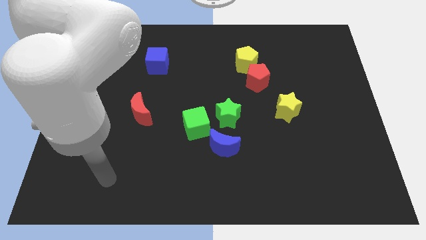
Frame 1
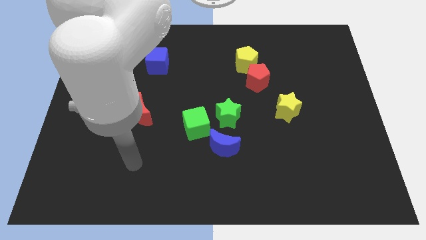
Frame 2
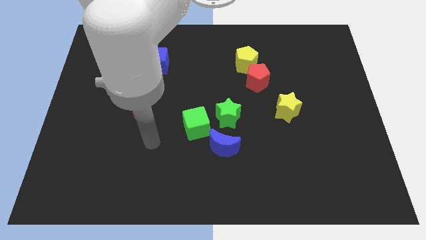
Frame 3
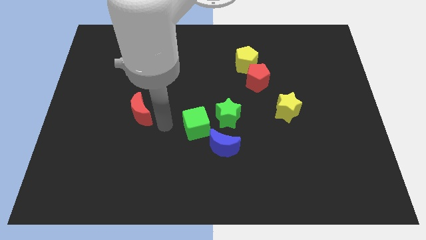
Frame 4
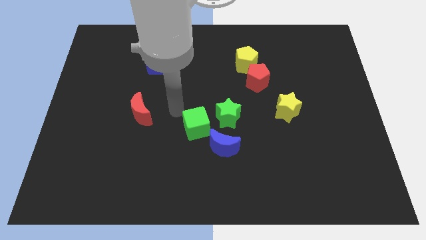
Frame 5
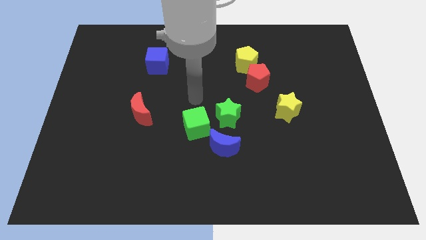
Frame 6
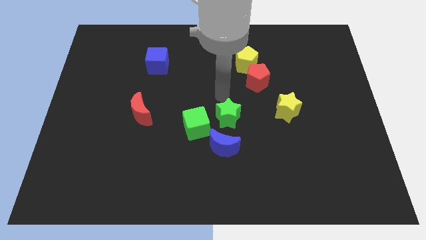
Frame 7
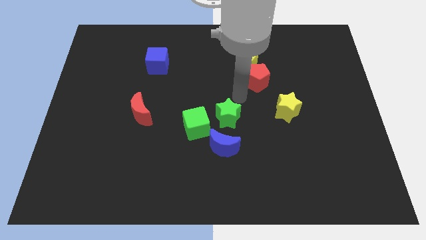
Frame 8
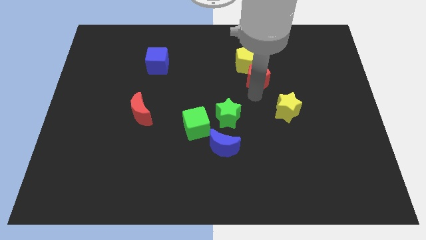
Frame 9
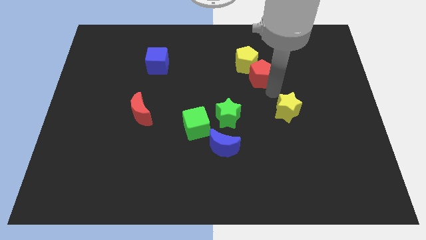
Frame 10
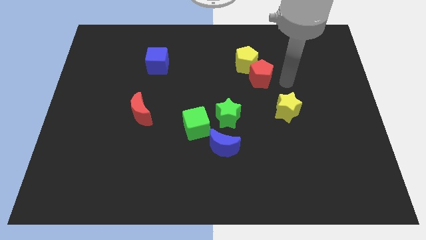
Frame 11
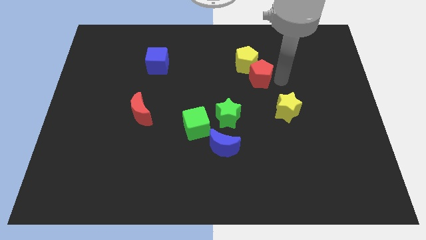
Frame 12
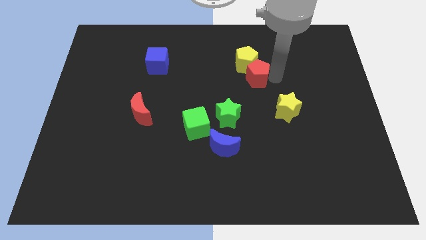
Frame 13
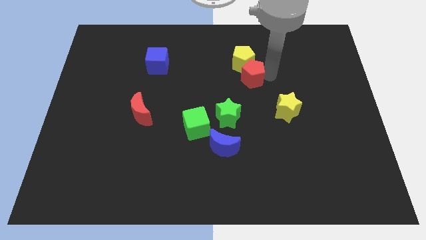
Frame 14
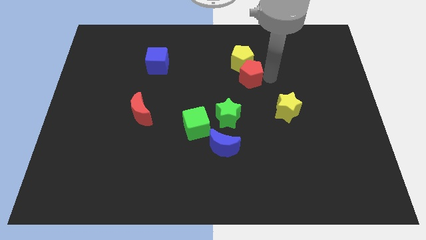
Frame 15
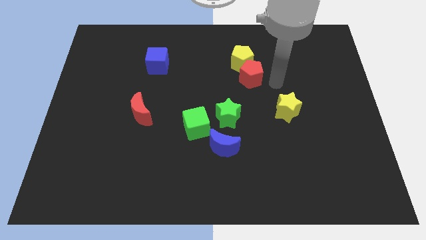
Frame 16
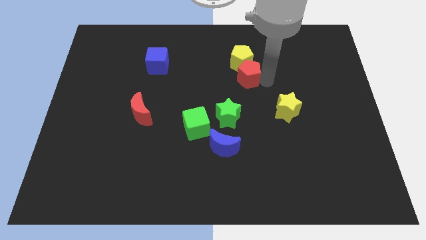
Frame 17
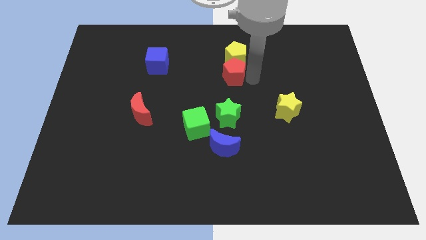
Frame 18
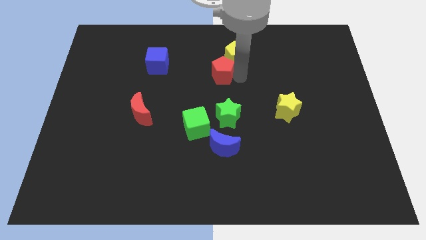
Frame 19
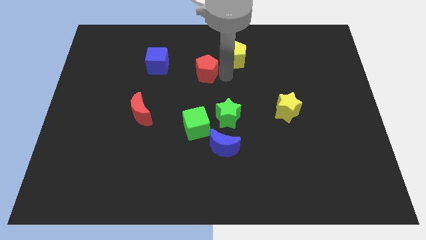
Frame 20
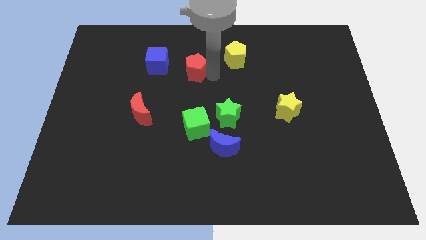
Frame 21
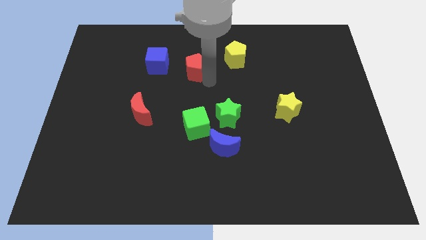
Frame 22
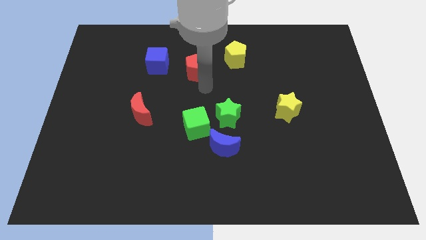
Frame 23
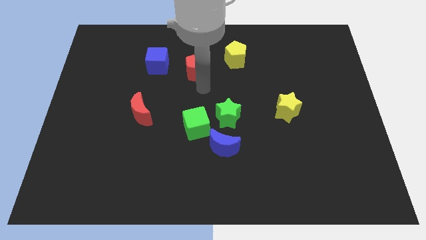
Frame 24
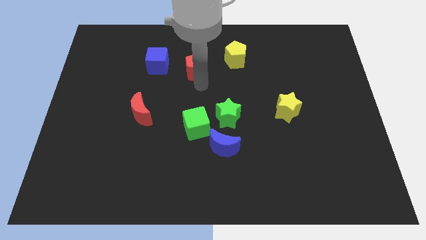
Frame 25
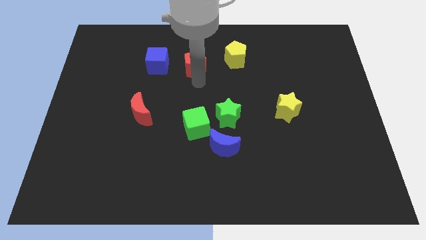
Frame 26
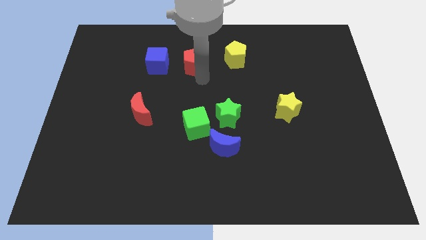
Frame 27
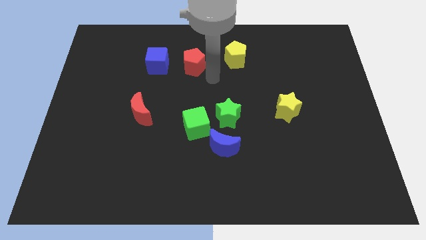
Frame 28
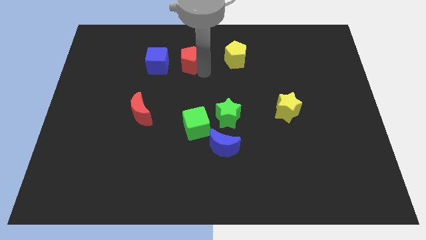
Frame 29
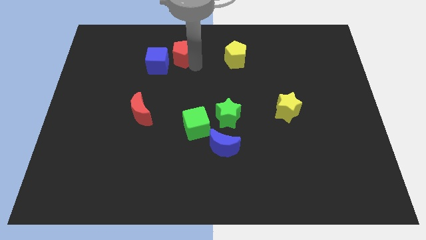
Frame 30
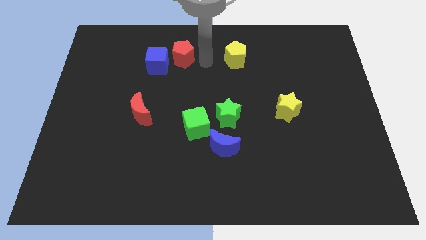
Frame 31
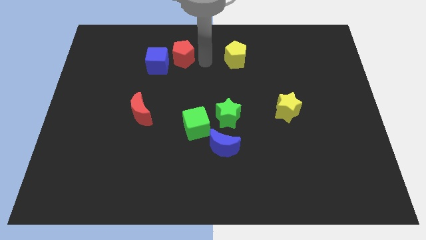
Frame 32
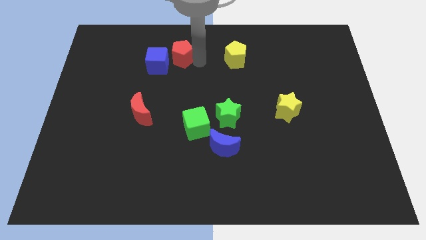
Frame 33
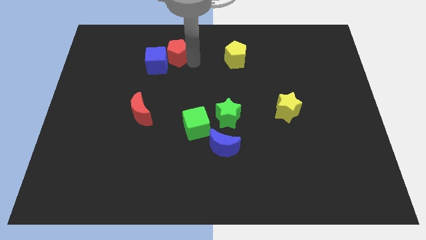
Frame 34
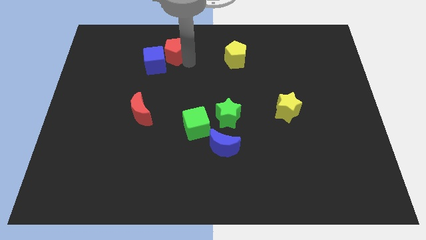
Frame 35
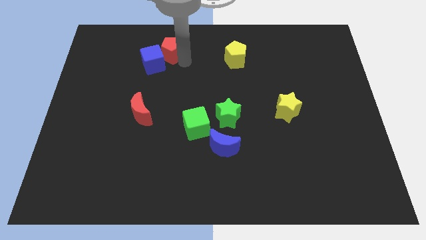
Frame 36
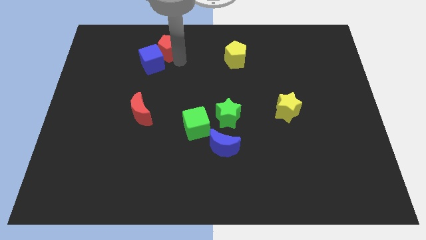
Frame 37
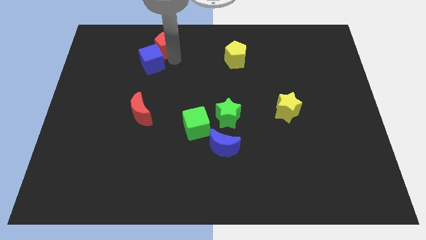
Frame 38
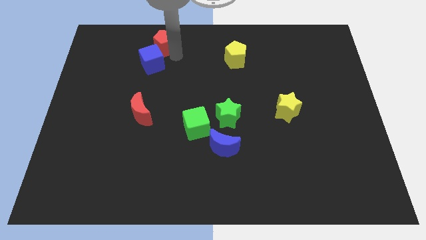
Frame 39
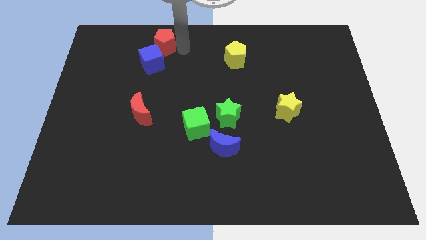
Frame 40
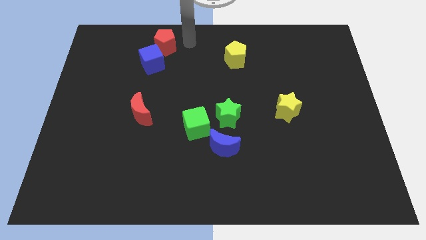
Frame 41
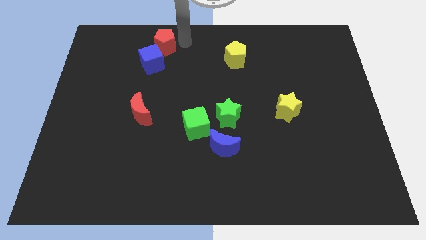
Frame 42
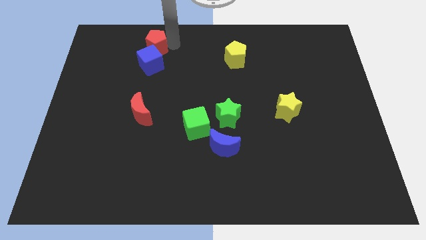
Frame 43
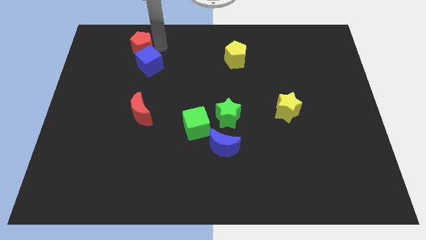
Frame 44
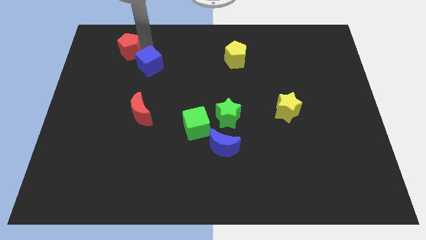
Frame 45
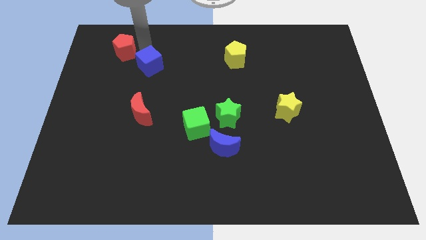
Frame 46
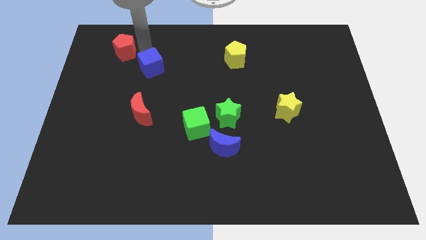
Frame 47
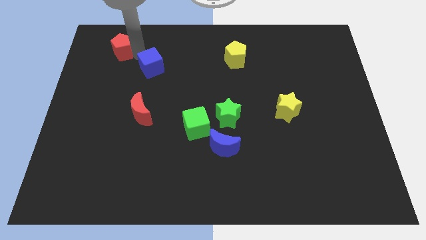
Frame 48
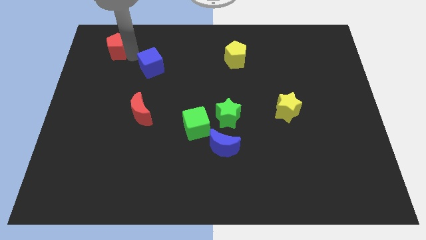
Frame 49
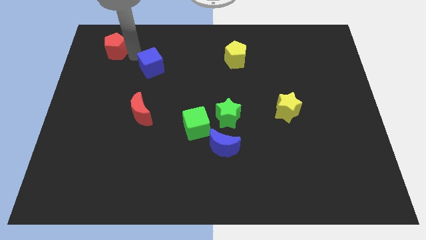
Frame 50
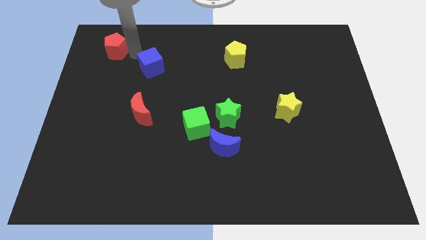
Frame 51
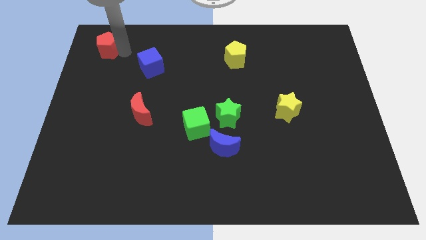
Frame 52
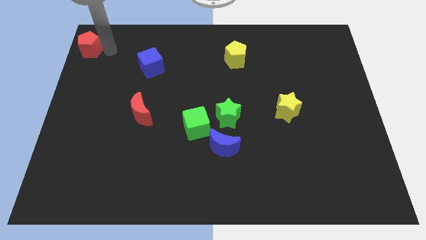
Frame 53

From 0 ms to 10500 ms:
push the red pentagon to the top left corner

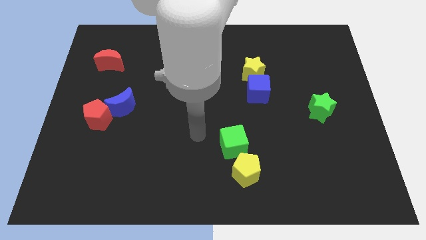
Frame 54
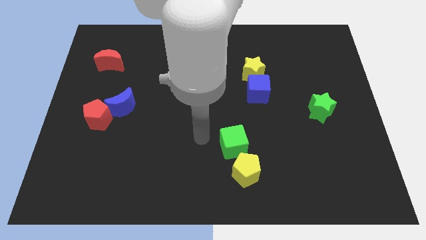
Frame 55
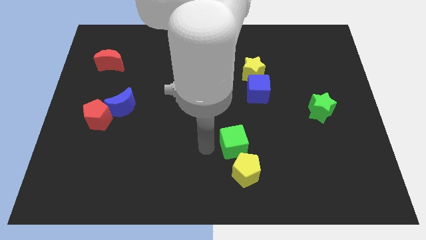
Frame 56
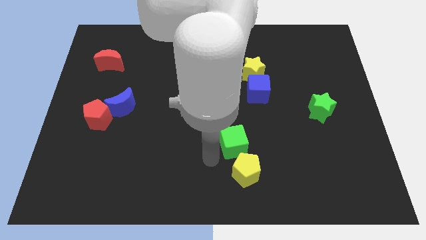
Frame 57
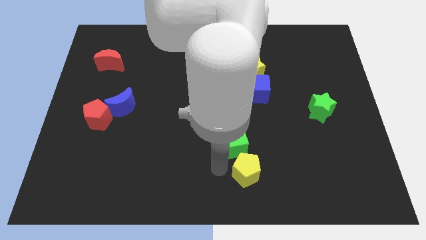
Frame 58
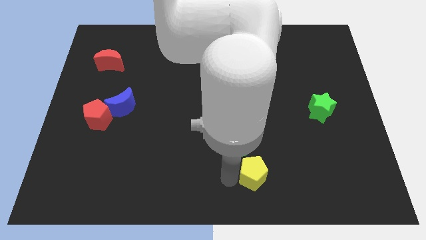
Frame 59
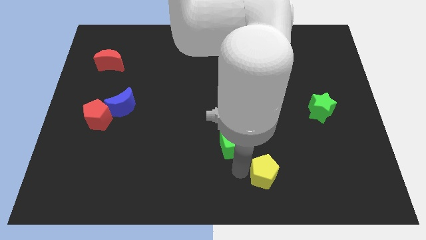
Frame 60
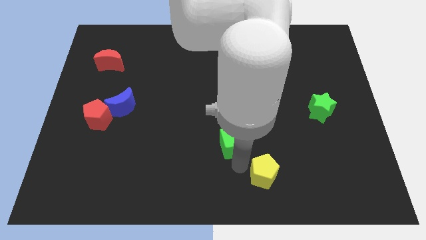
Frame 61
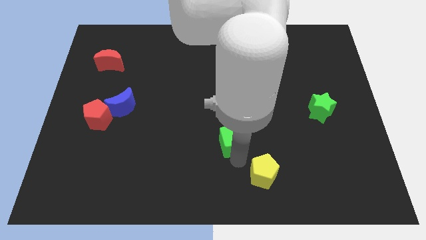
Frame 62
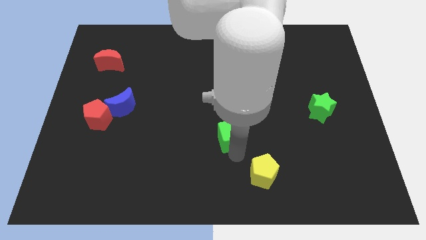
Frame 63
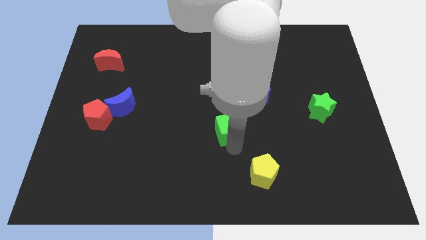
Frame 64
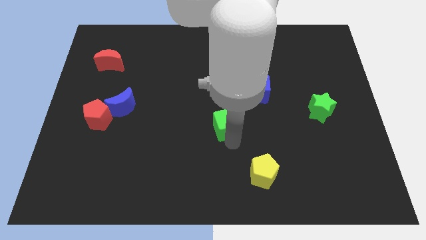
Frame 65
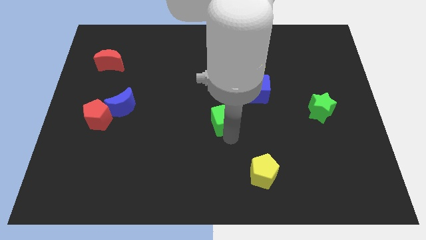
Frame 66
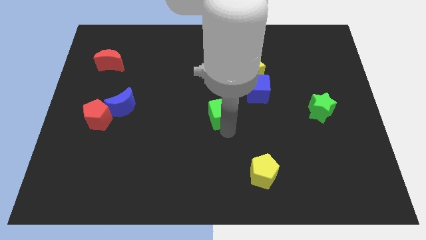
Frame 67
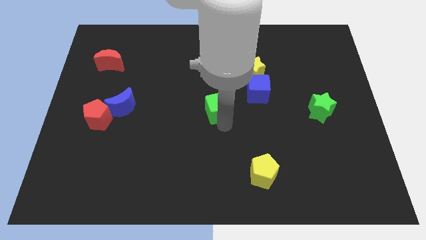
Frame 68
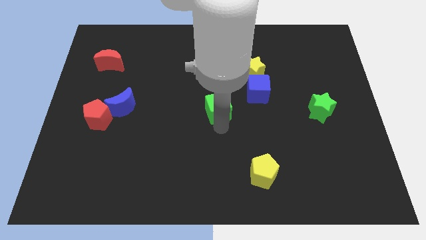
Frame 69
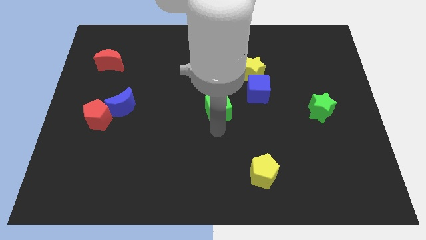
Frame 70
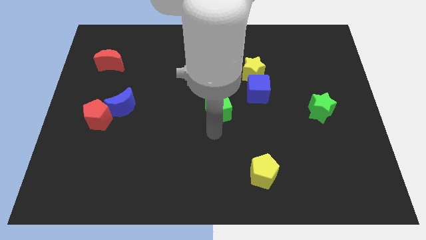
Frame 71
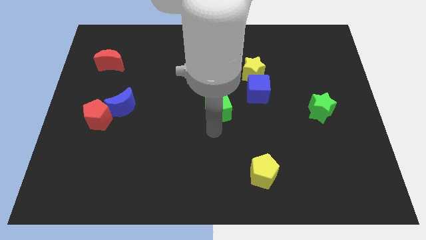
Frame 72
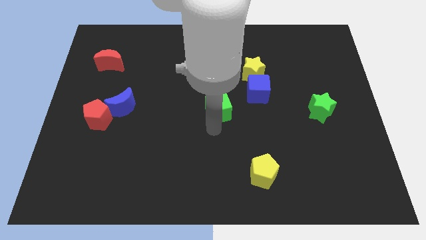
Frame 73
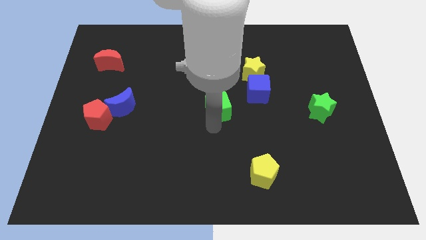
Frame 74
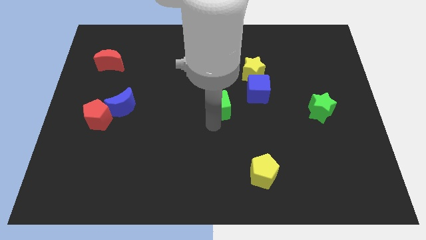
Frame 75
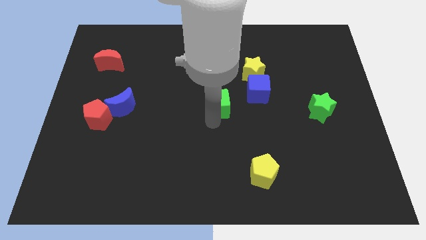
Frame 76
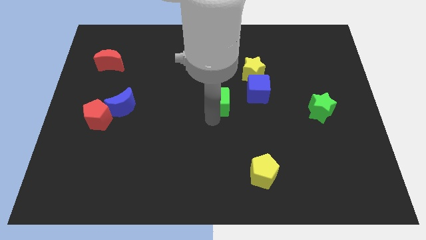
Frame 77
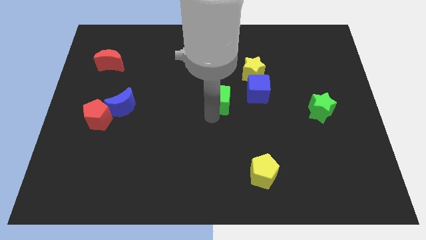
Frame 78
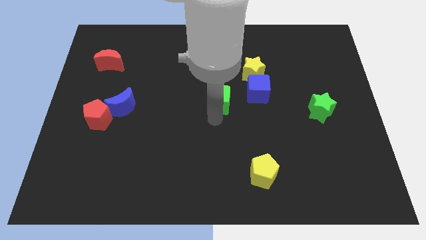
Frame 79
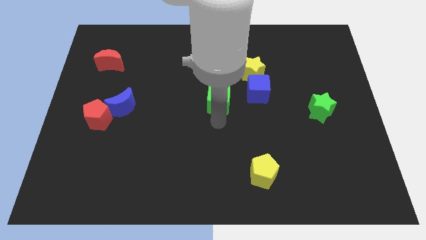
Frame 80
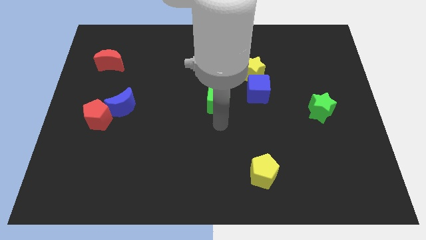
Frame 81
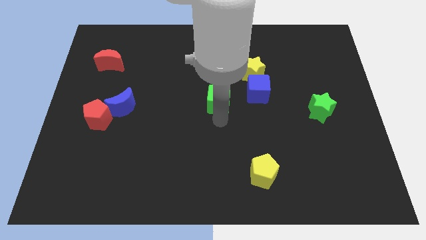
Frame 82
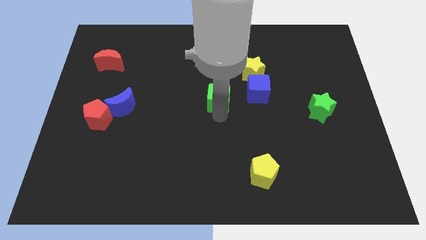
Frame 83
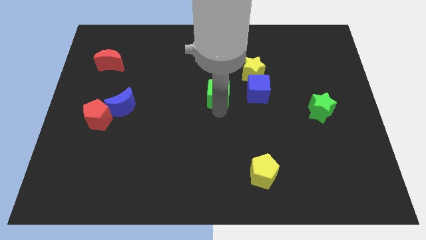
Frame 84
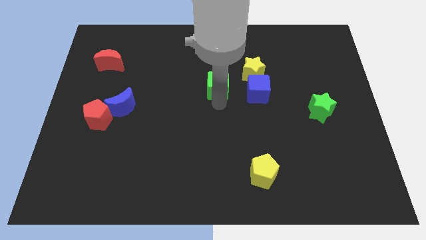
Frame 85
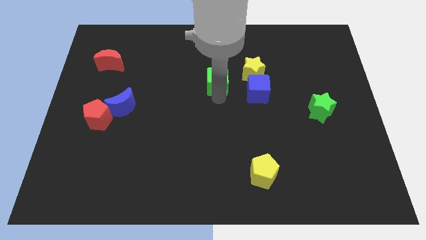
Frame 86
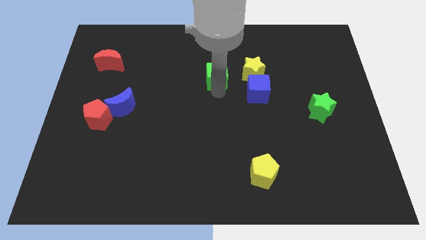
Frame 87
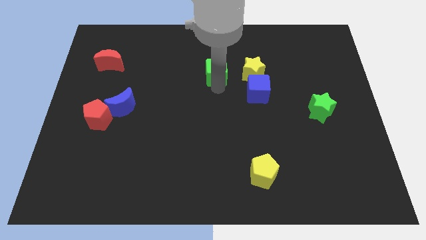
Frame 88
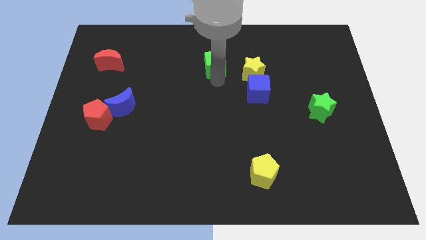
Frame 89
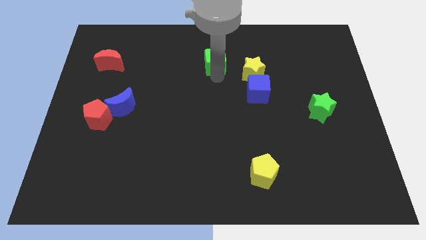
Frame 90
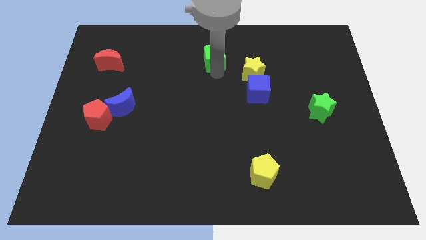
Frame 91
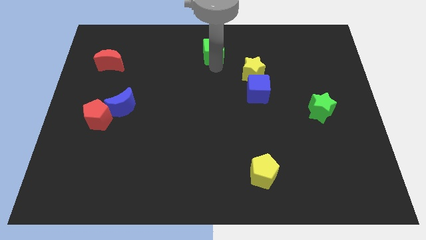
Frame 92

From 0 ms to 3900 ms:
push the green cube to the top side
